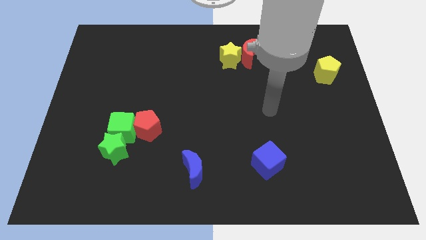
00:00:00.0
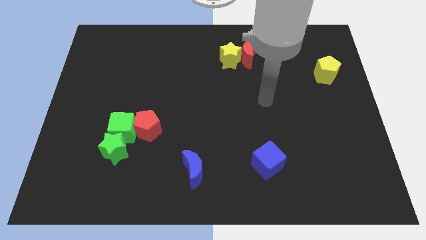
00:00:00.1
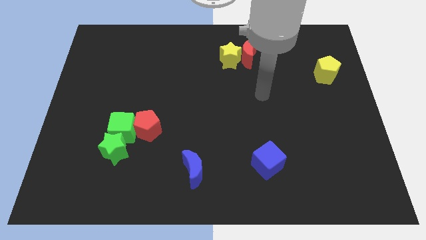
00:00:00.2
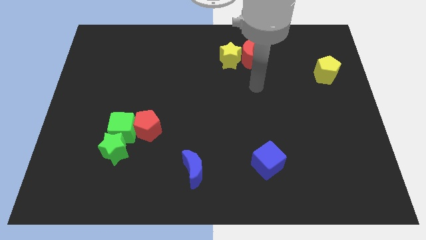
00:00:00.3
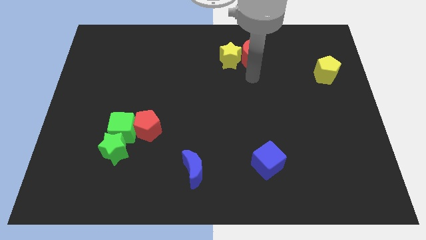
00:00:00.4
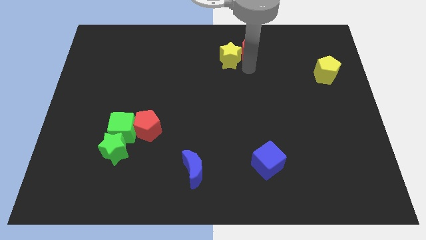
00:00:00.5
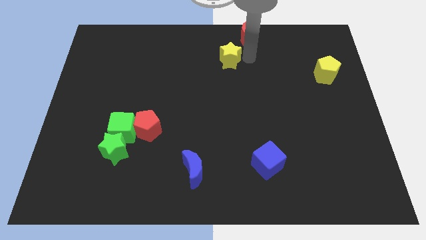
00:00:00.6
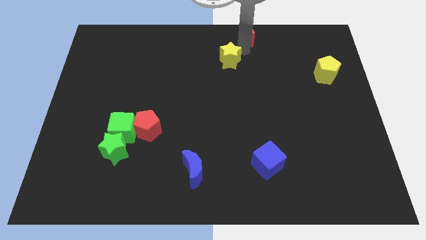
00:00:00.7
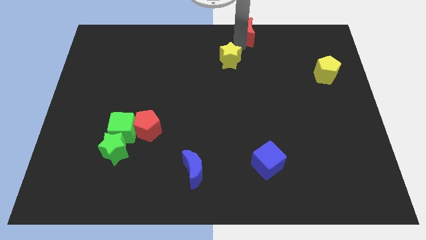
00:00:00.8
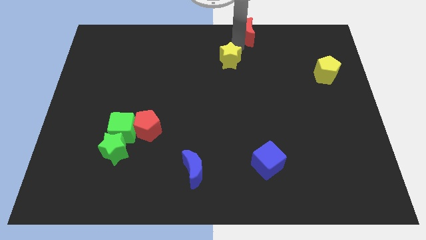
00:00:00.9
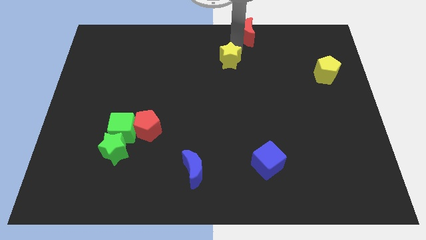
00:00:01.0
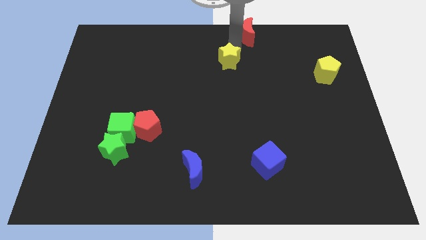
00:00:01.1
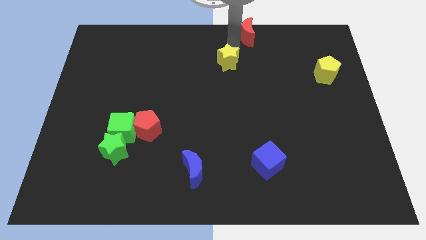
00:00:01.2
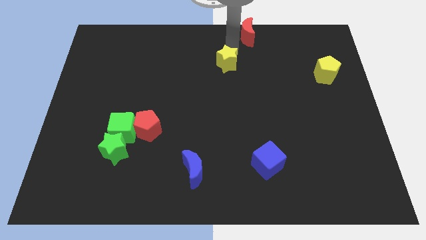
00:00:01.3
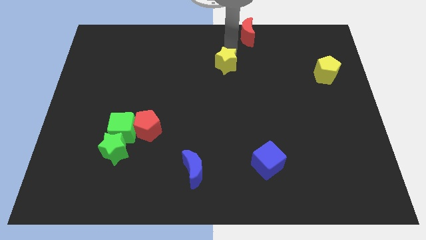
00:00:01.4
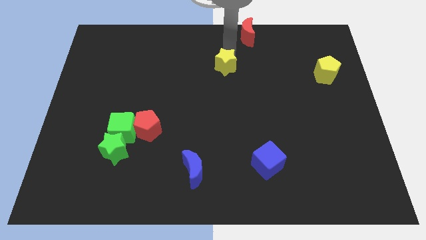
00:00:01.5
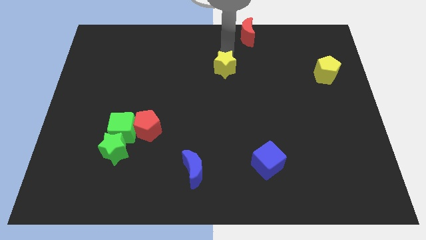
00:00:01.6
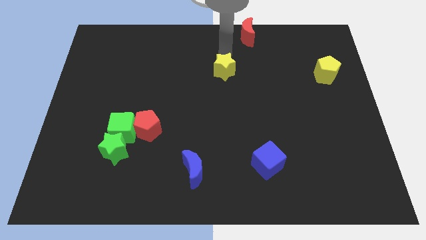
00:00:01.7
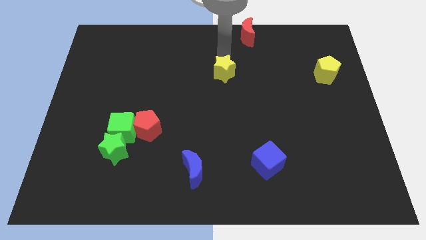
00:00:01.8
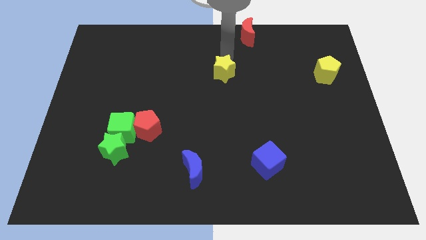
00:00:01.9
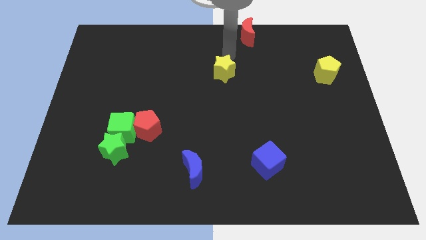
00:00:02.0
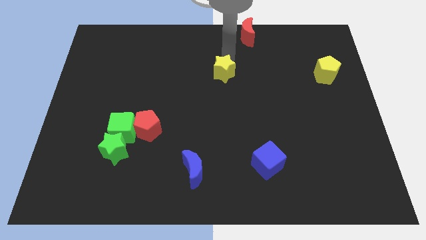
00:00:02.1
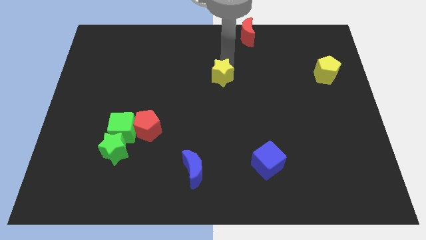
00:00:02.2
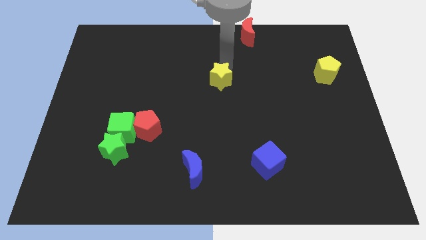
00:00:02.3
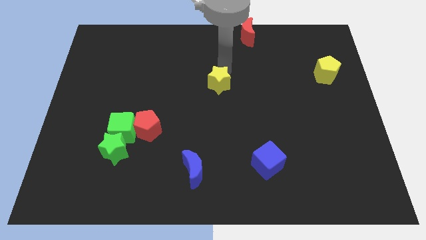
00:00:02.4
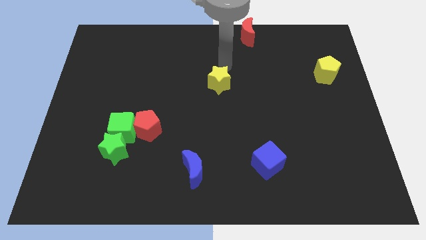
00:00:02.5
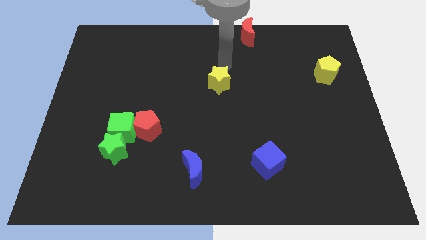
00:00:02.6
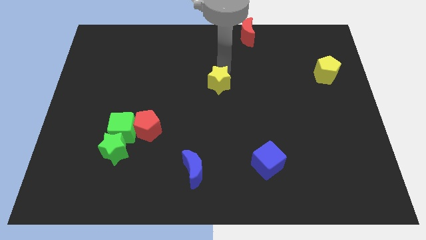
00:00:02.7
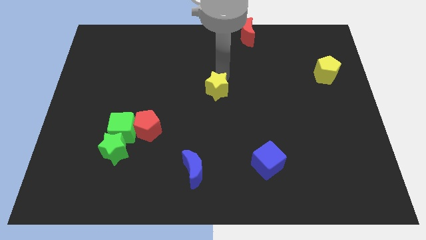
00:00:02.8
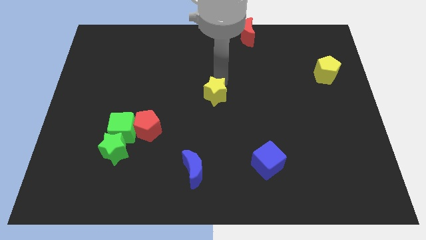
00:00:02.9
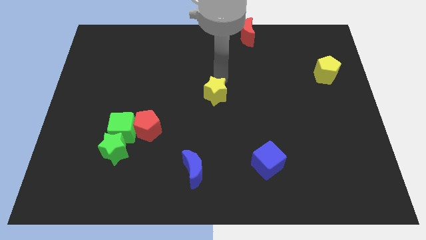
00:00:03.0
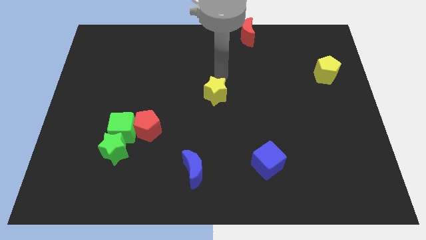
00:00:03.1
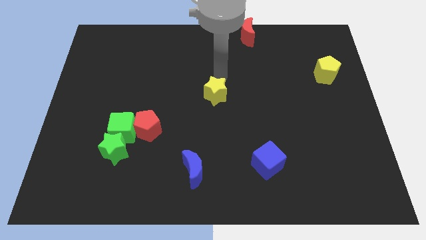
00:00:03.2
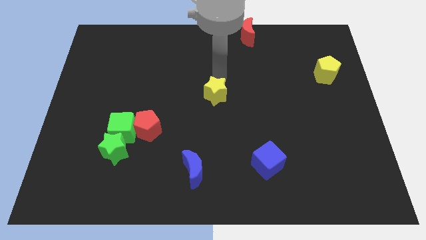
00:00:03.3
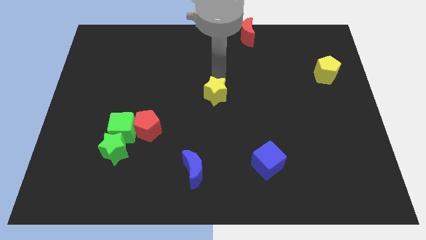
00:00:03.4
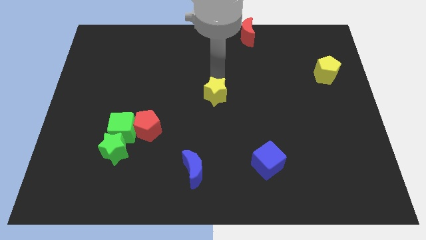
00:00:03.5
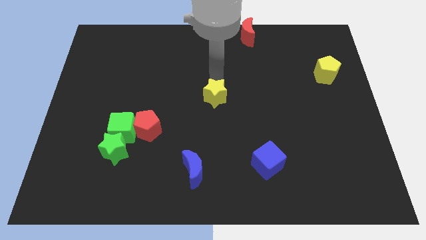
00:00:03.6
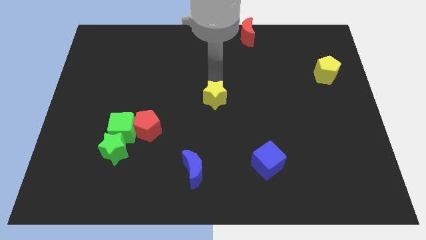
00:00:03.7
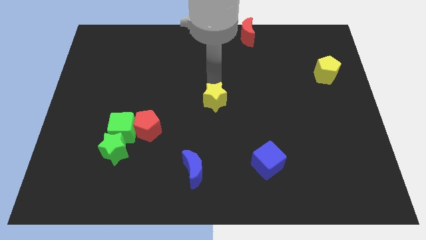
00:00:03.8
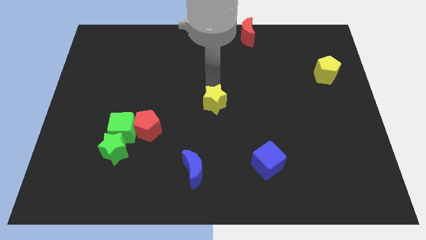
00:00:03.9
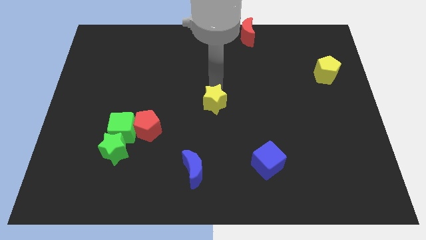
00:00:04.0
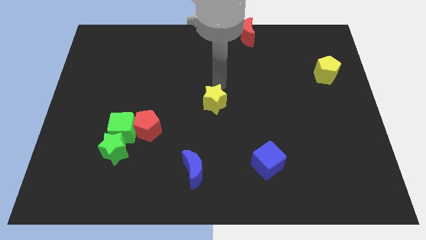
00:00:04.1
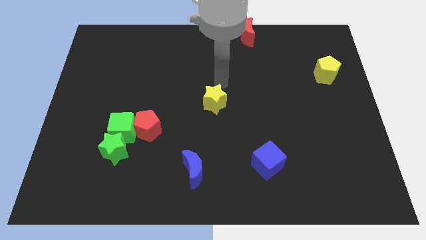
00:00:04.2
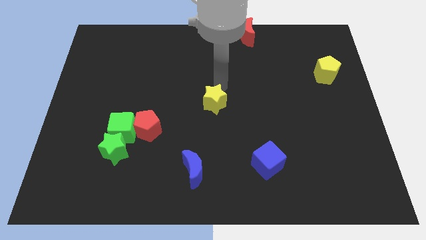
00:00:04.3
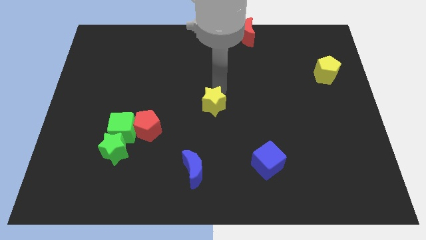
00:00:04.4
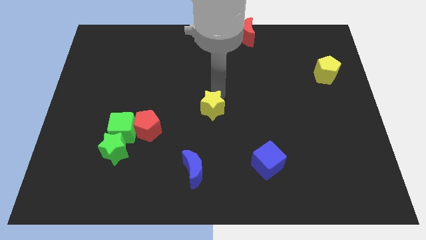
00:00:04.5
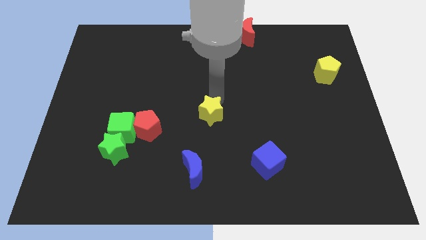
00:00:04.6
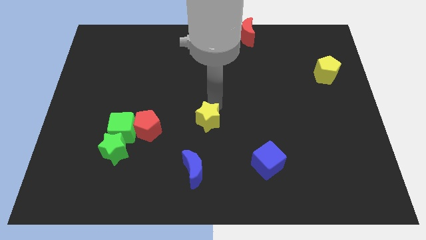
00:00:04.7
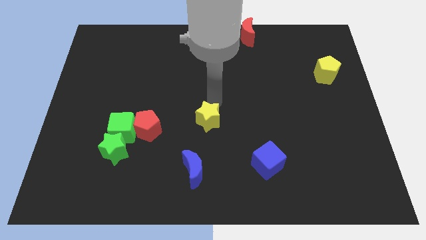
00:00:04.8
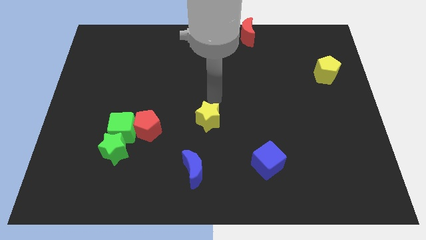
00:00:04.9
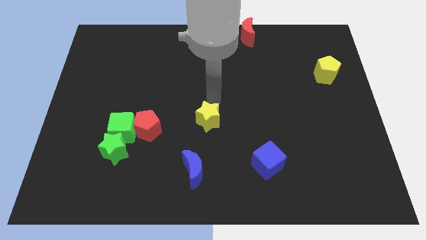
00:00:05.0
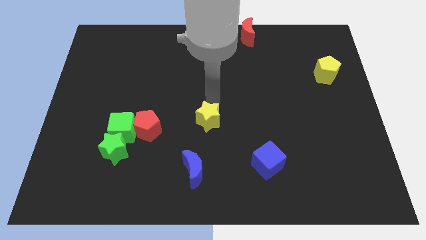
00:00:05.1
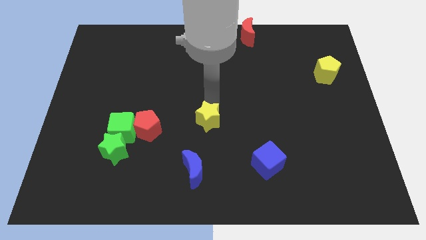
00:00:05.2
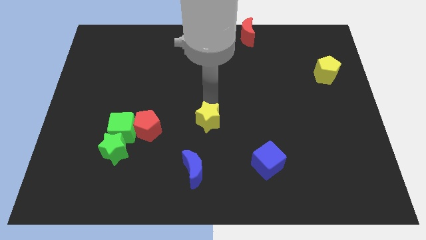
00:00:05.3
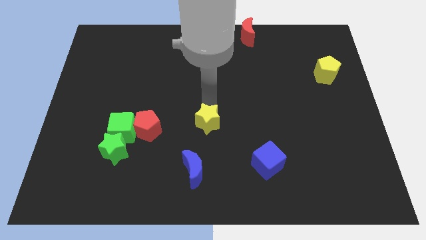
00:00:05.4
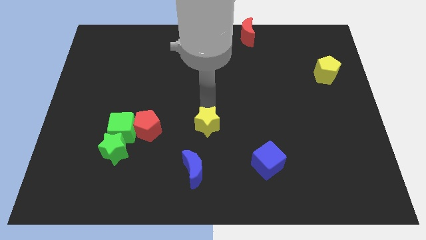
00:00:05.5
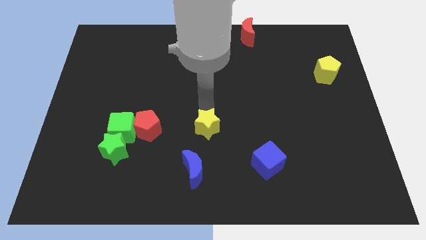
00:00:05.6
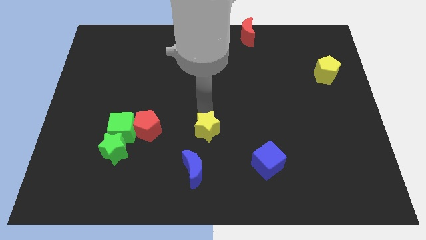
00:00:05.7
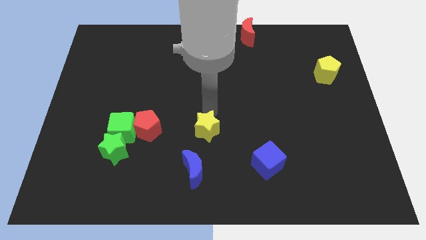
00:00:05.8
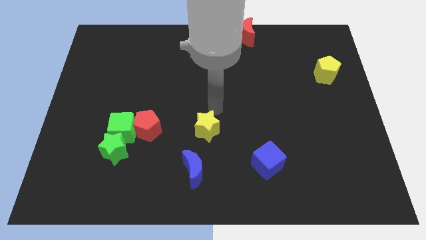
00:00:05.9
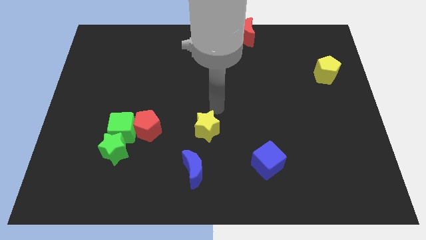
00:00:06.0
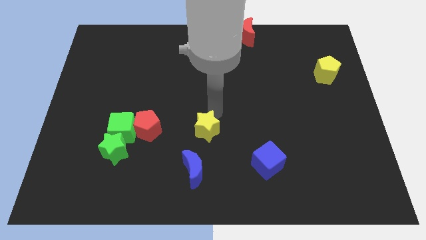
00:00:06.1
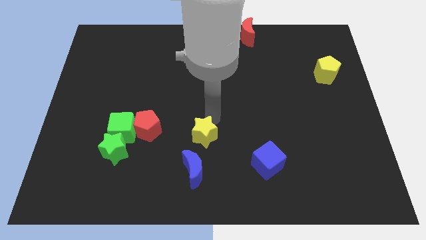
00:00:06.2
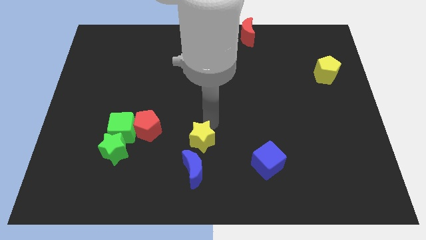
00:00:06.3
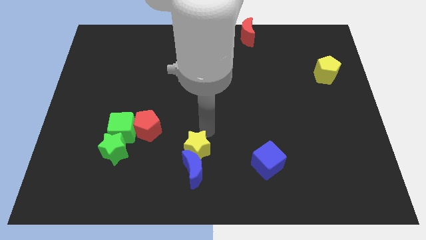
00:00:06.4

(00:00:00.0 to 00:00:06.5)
put the yellow star close to the blue moon

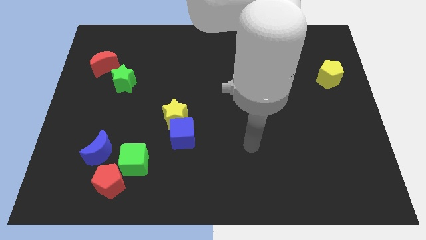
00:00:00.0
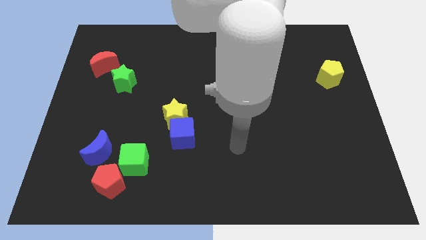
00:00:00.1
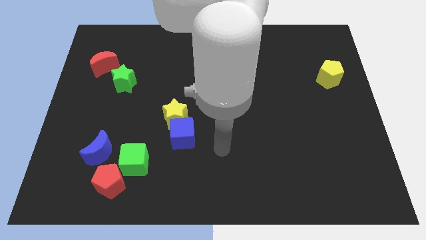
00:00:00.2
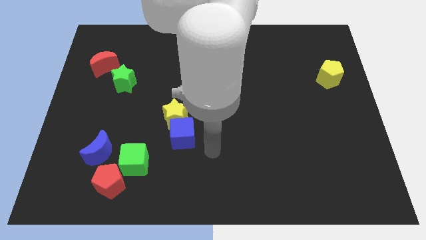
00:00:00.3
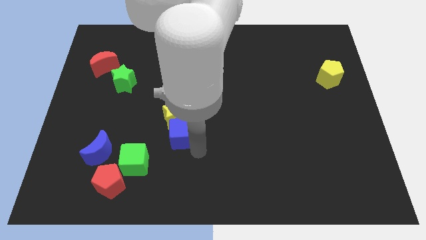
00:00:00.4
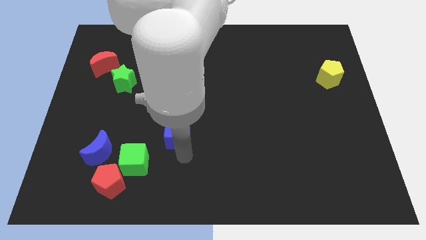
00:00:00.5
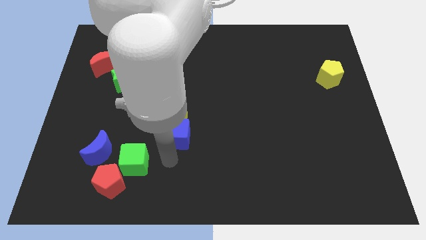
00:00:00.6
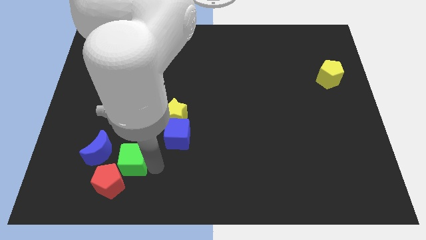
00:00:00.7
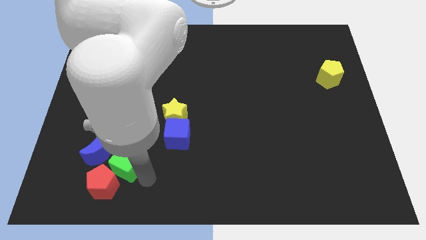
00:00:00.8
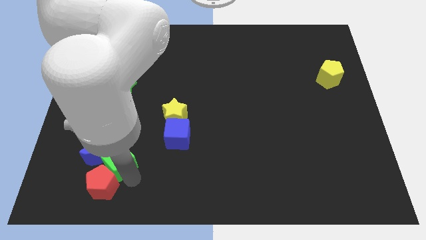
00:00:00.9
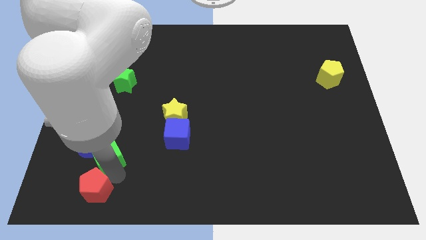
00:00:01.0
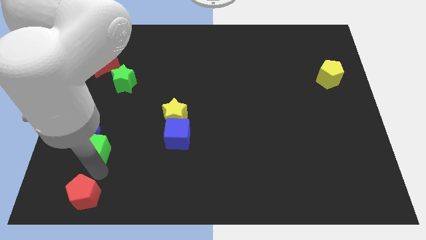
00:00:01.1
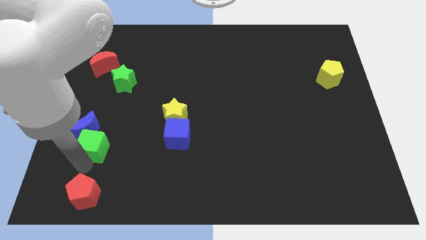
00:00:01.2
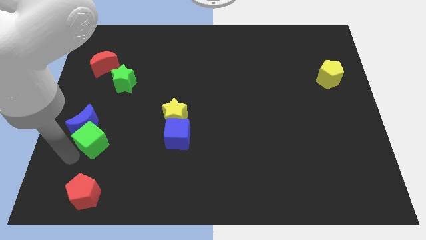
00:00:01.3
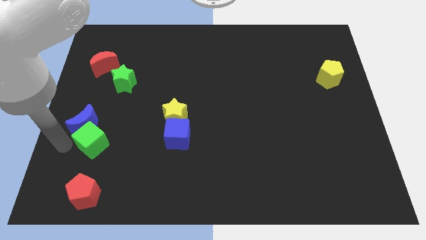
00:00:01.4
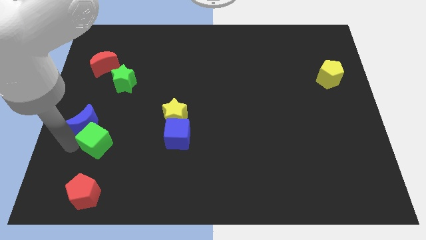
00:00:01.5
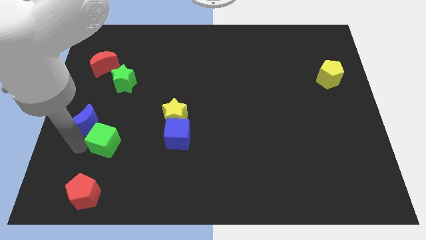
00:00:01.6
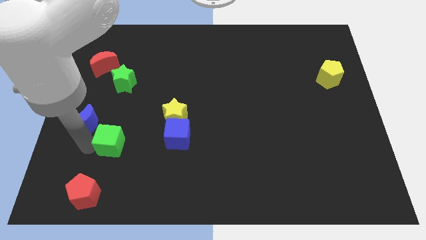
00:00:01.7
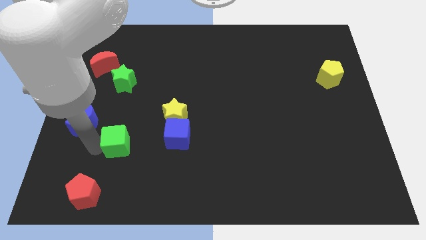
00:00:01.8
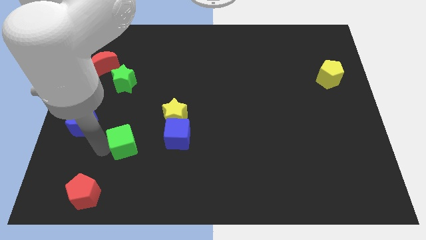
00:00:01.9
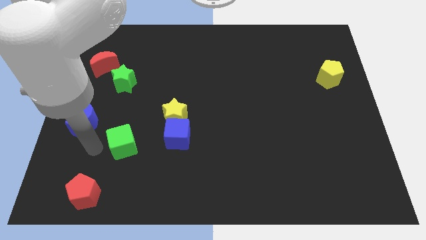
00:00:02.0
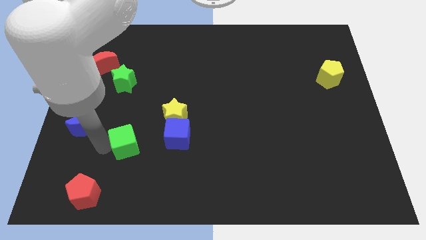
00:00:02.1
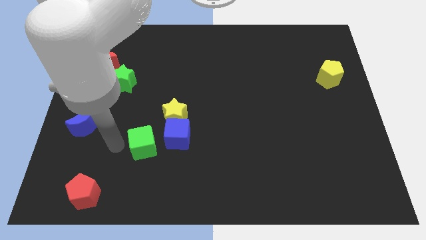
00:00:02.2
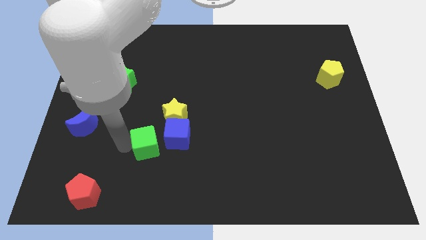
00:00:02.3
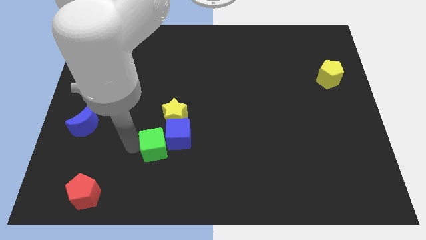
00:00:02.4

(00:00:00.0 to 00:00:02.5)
put the green cube to the blue cube
